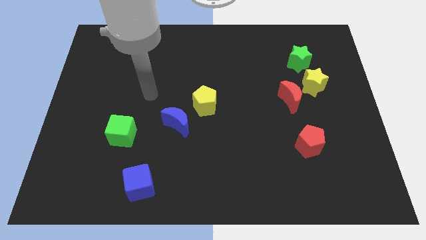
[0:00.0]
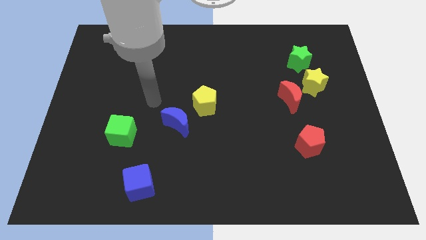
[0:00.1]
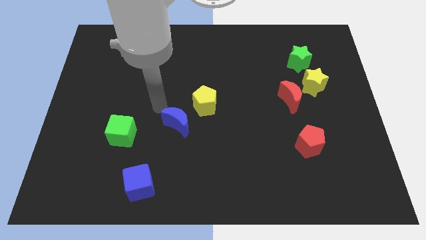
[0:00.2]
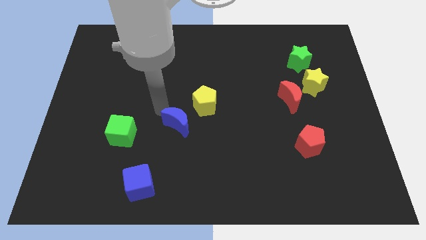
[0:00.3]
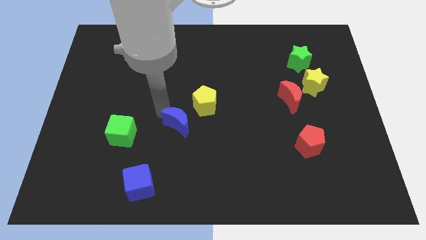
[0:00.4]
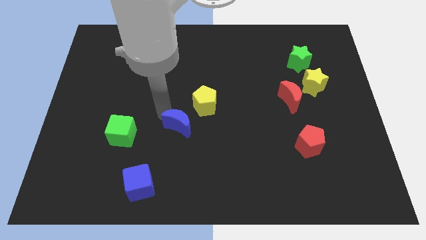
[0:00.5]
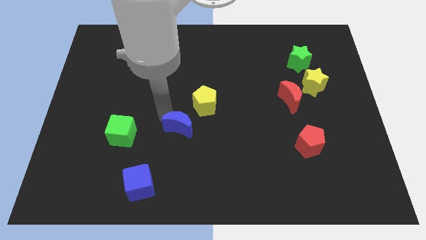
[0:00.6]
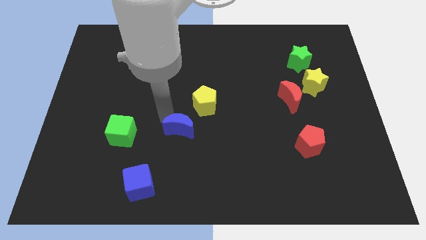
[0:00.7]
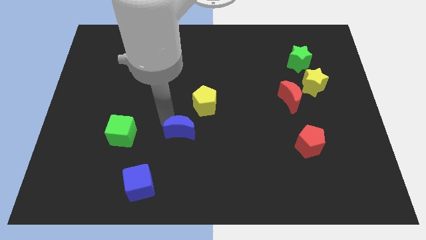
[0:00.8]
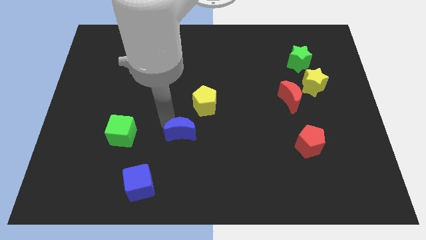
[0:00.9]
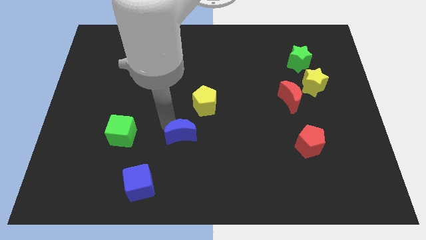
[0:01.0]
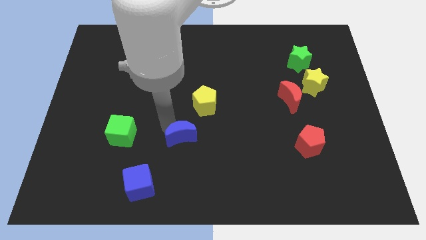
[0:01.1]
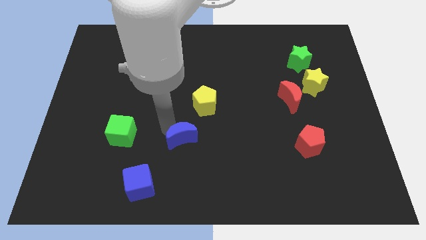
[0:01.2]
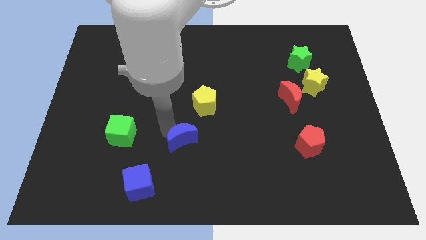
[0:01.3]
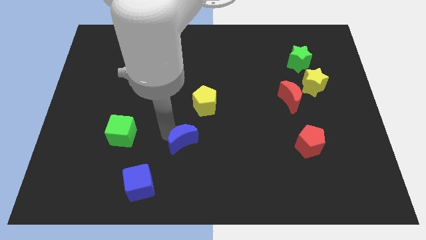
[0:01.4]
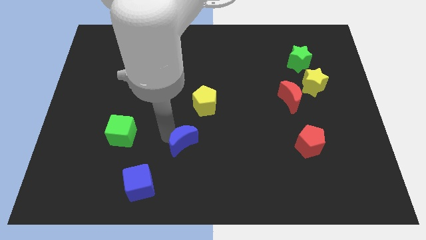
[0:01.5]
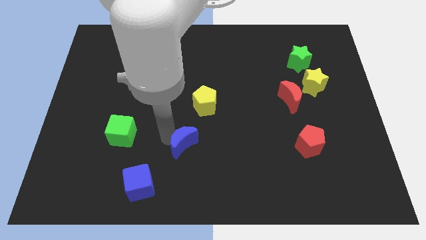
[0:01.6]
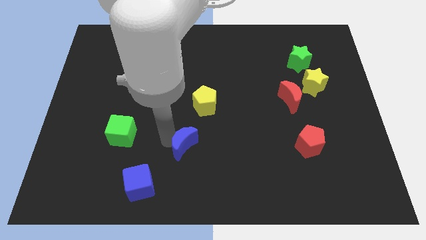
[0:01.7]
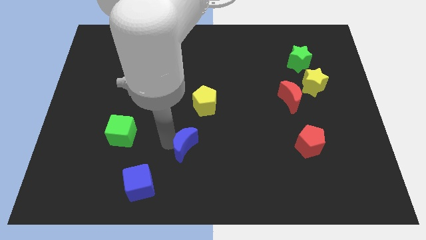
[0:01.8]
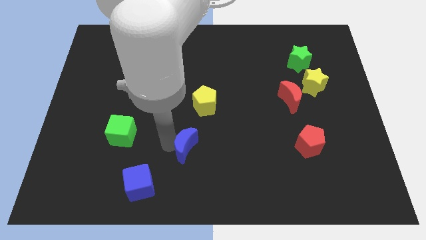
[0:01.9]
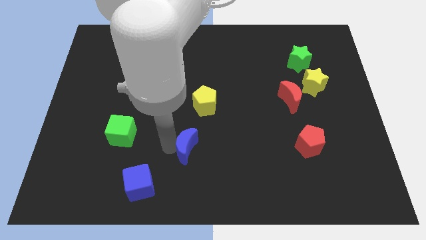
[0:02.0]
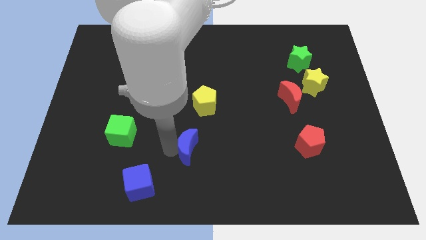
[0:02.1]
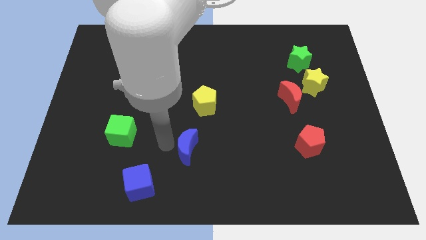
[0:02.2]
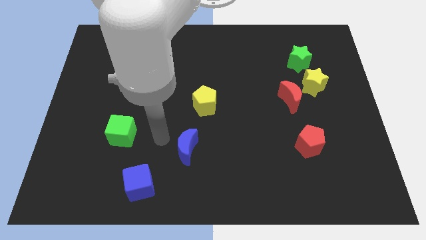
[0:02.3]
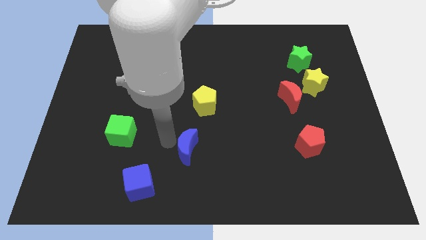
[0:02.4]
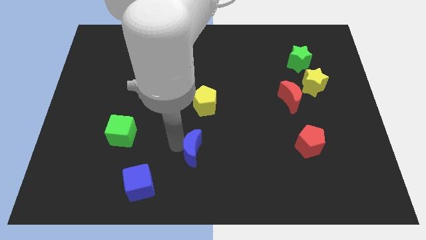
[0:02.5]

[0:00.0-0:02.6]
move the blue moon downwards and right diagonally somewhat

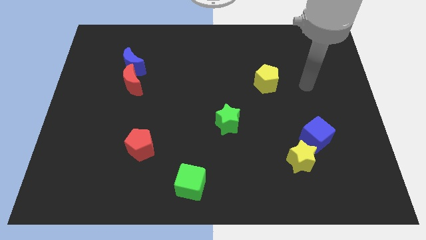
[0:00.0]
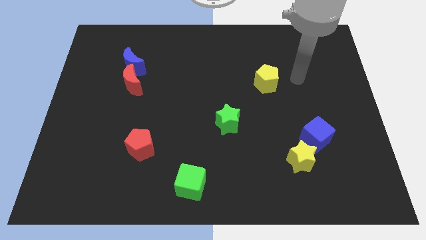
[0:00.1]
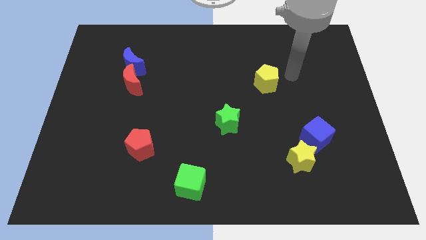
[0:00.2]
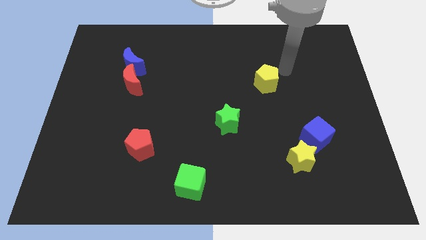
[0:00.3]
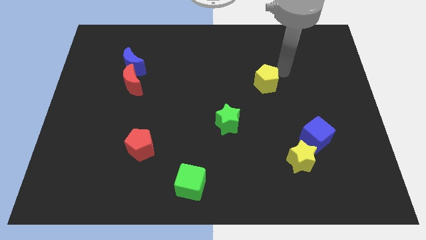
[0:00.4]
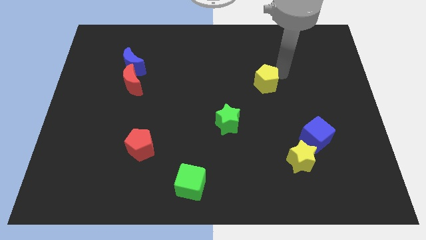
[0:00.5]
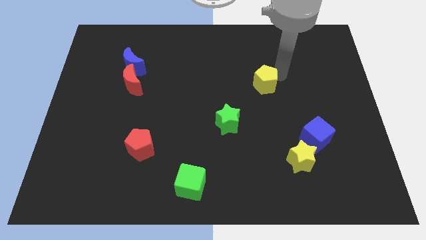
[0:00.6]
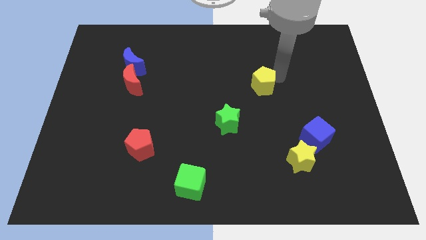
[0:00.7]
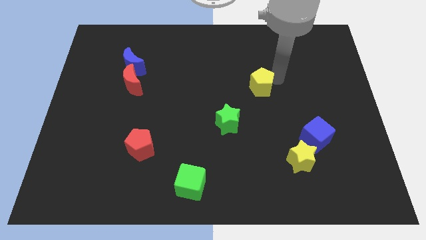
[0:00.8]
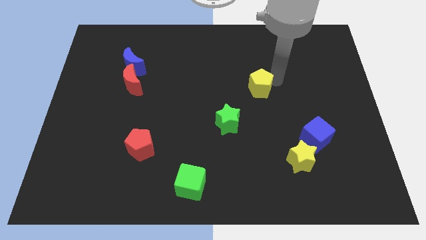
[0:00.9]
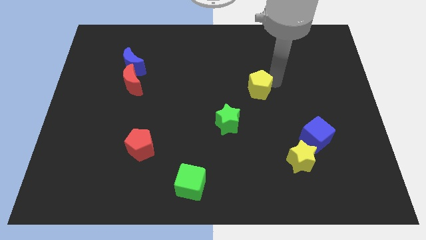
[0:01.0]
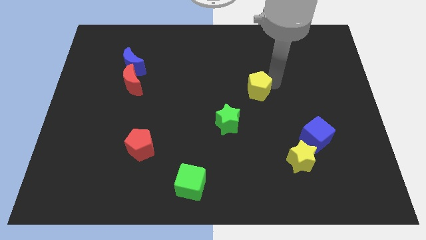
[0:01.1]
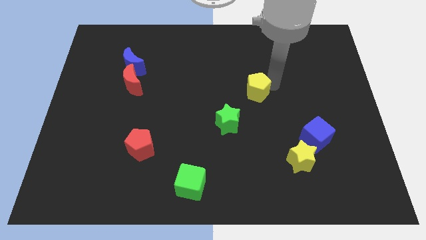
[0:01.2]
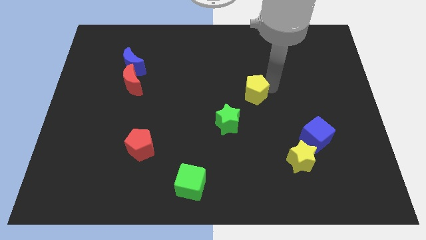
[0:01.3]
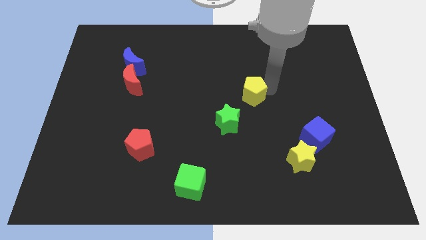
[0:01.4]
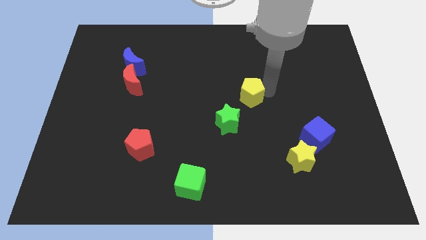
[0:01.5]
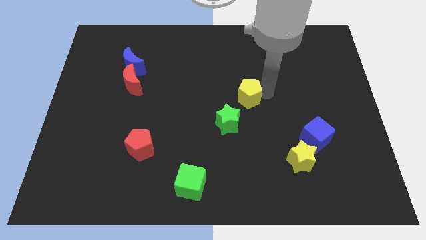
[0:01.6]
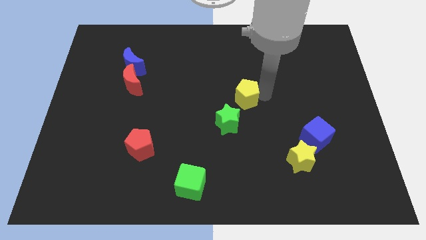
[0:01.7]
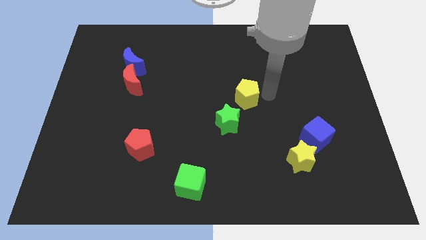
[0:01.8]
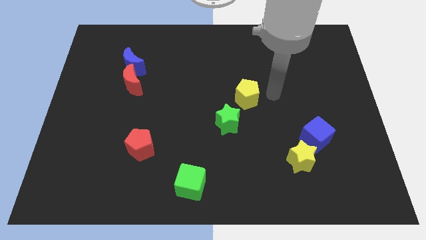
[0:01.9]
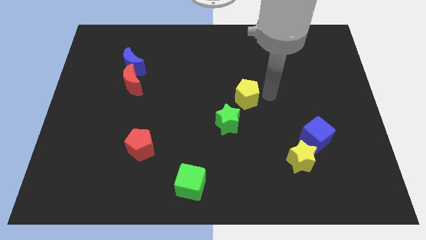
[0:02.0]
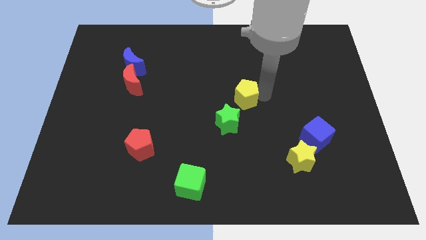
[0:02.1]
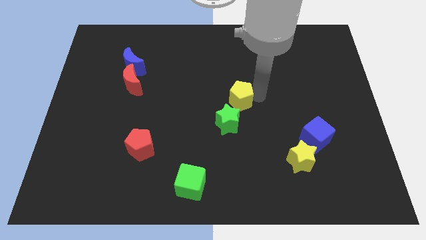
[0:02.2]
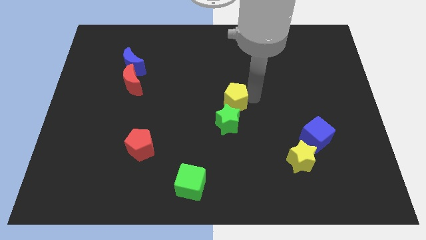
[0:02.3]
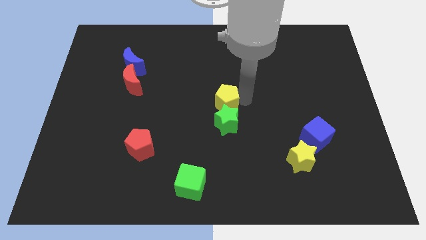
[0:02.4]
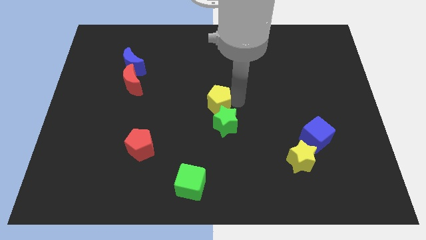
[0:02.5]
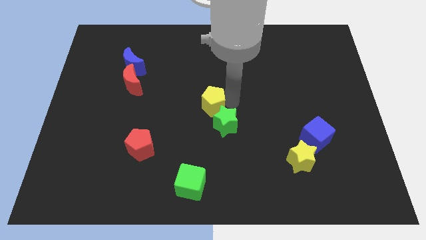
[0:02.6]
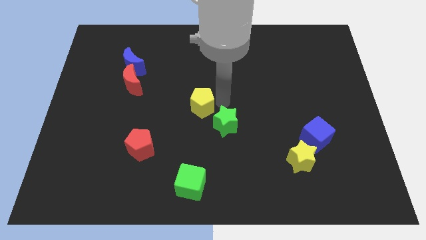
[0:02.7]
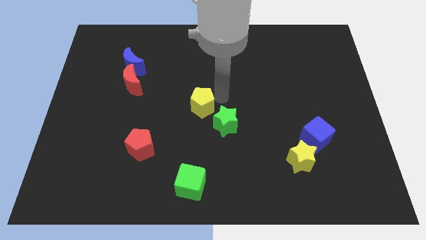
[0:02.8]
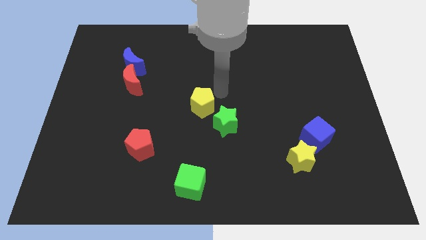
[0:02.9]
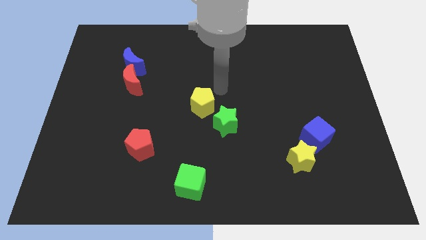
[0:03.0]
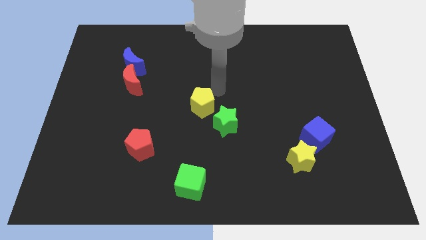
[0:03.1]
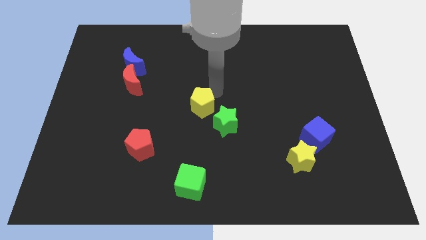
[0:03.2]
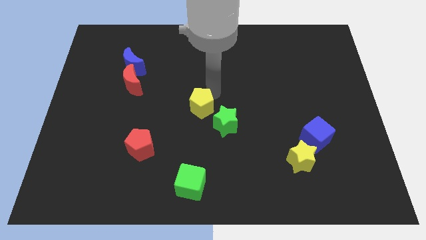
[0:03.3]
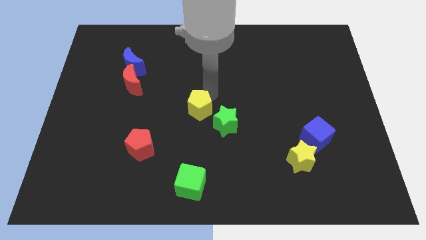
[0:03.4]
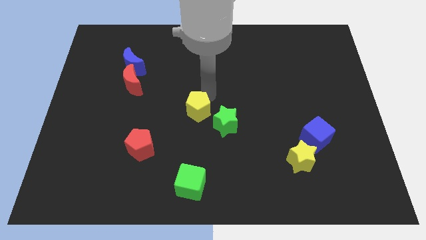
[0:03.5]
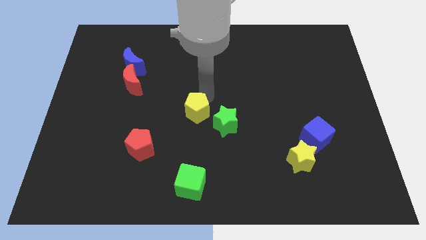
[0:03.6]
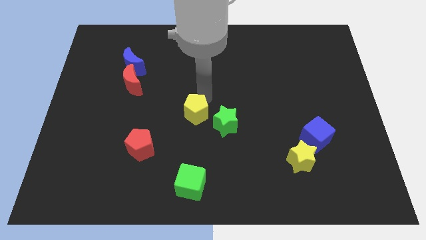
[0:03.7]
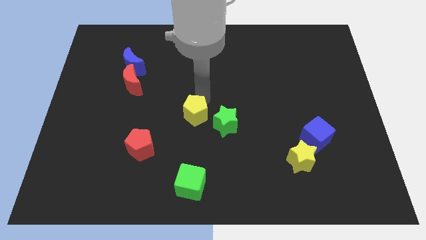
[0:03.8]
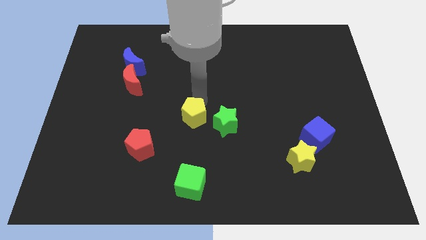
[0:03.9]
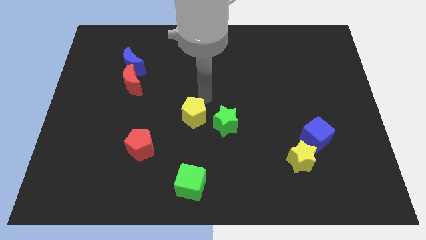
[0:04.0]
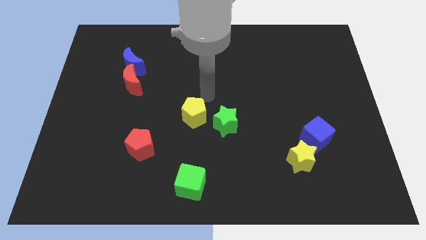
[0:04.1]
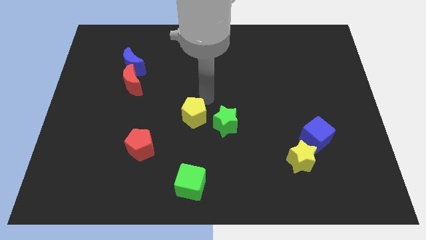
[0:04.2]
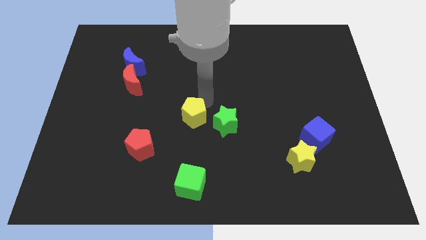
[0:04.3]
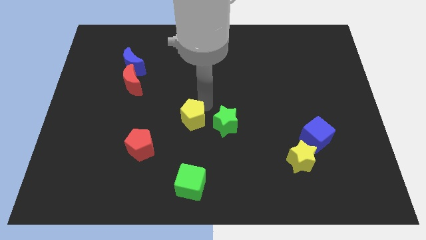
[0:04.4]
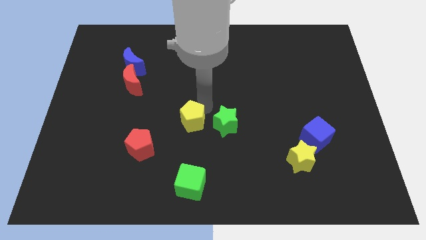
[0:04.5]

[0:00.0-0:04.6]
push the yellow pentagon downwards and left diagonally

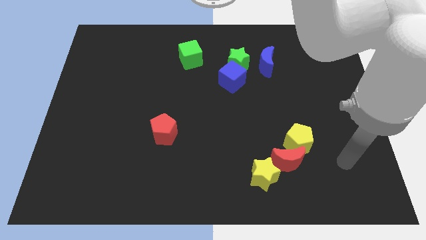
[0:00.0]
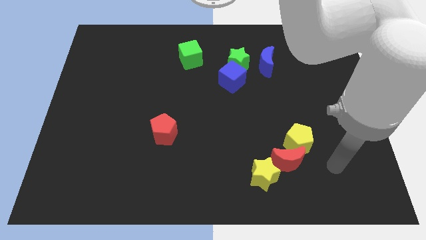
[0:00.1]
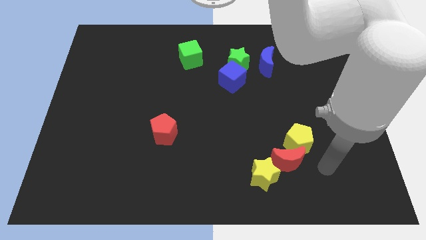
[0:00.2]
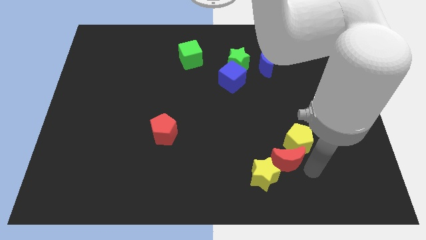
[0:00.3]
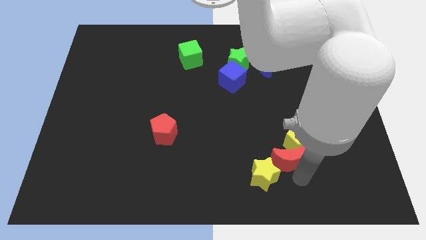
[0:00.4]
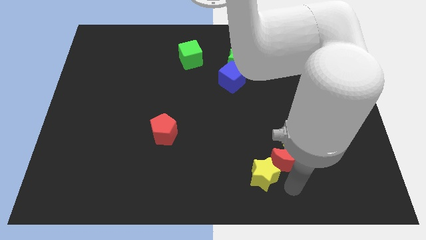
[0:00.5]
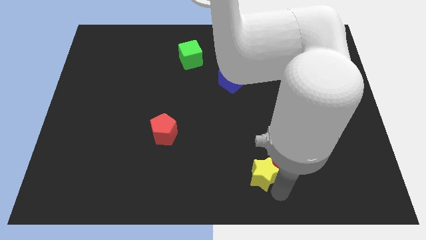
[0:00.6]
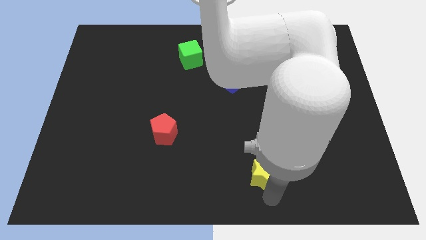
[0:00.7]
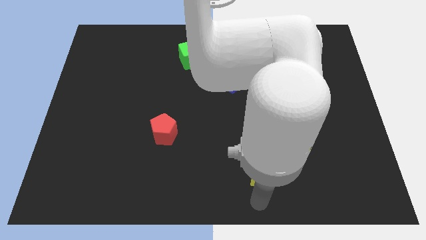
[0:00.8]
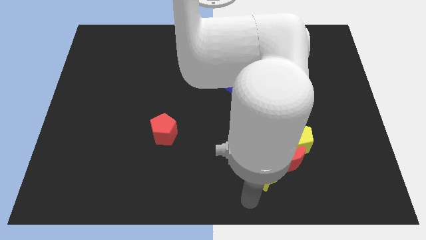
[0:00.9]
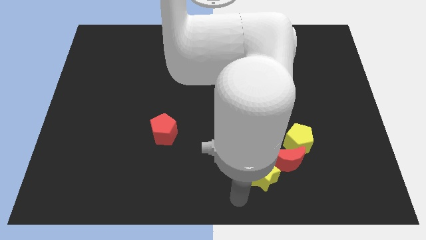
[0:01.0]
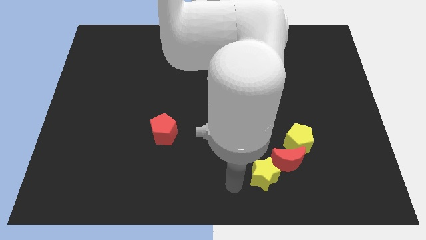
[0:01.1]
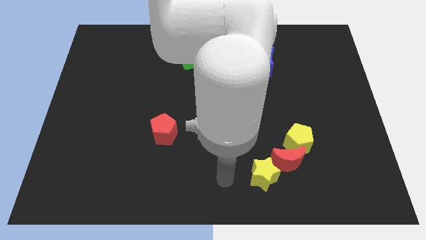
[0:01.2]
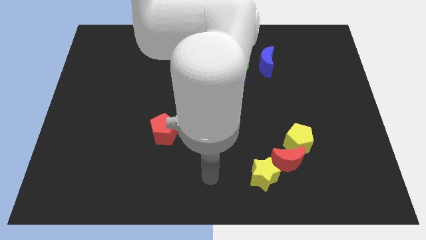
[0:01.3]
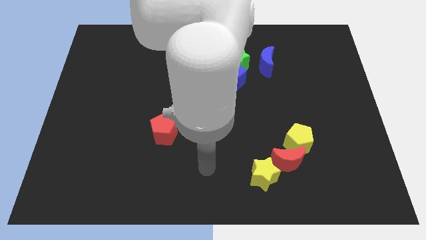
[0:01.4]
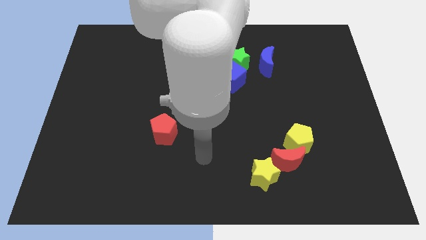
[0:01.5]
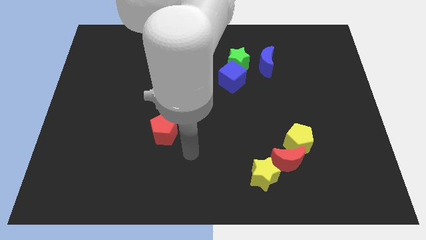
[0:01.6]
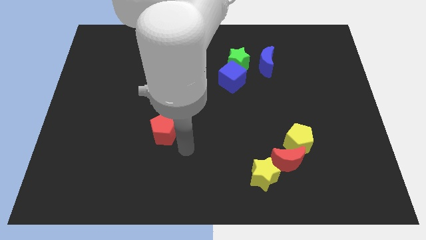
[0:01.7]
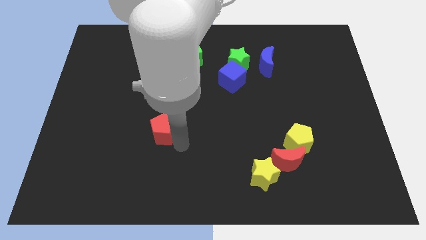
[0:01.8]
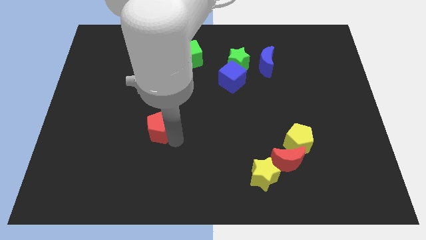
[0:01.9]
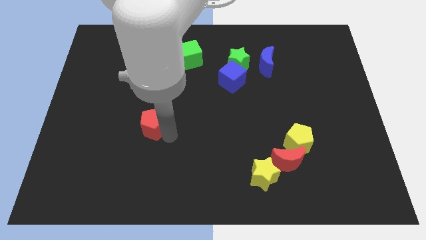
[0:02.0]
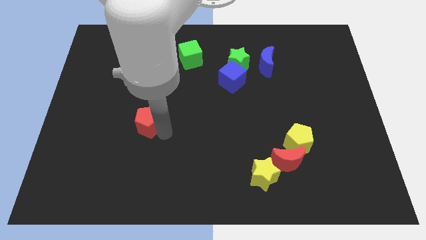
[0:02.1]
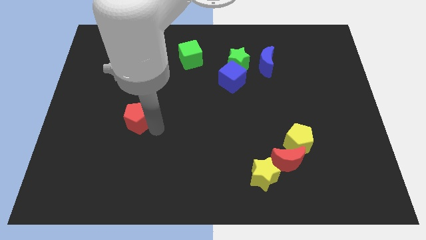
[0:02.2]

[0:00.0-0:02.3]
push the red pentagon upwards and left somewhat
